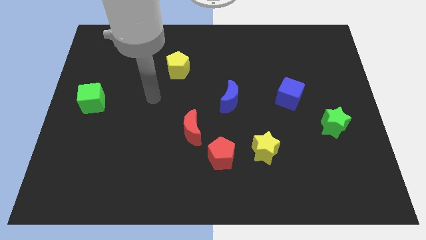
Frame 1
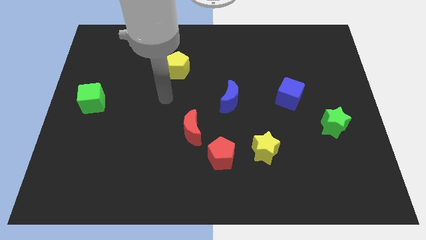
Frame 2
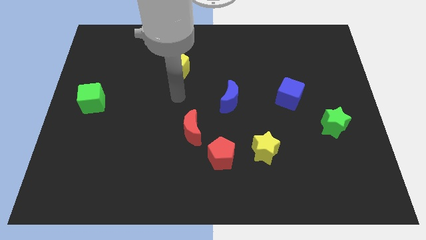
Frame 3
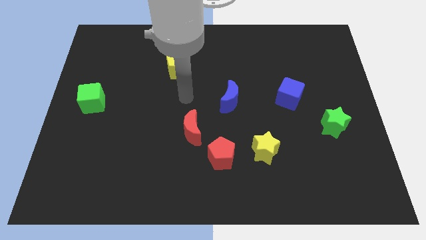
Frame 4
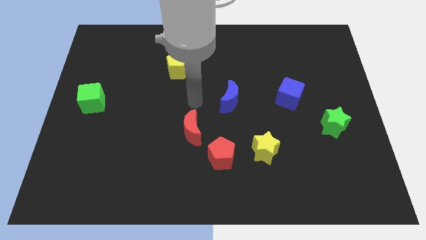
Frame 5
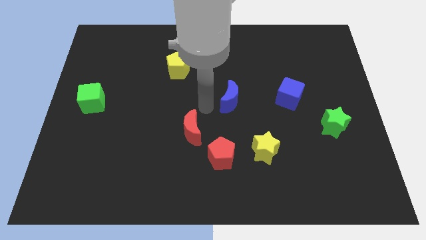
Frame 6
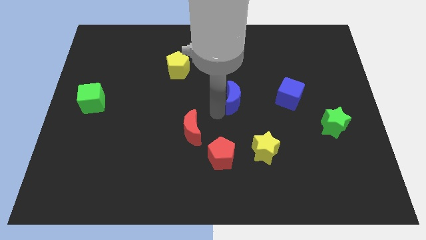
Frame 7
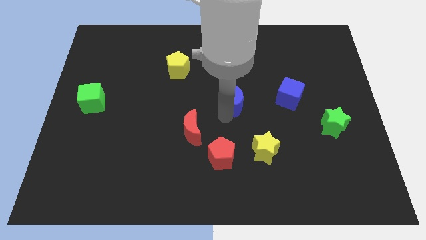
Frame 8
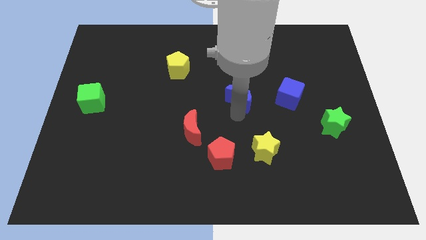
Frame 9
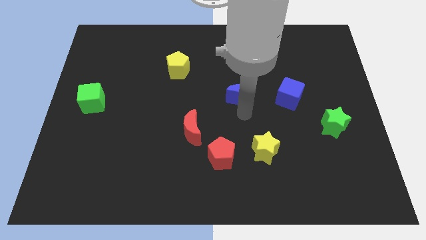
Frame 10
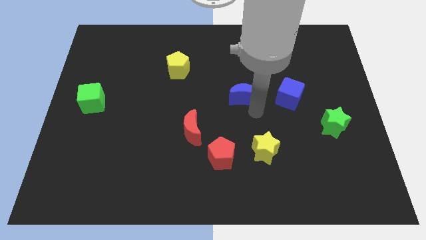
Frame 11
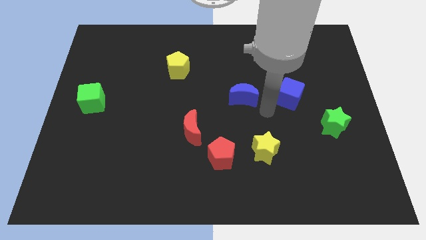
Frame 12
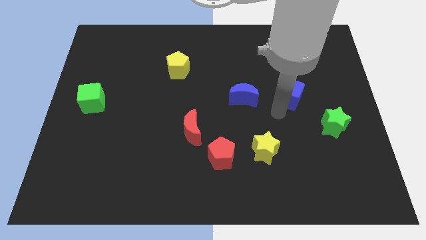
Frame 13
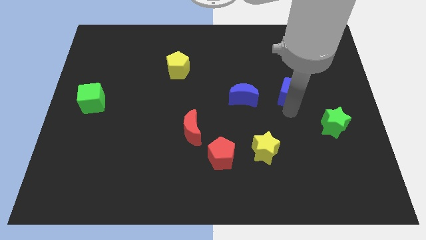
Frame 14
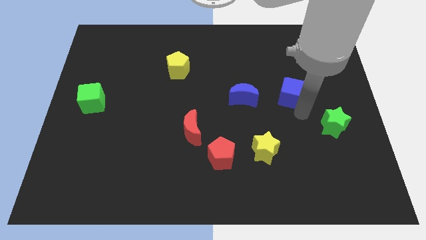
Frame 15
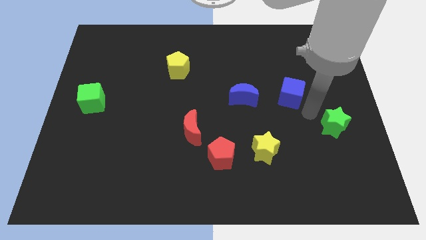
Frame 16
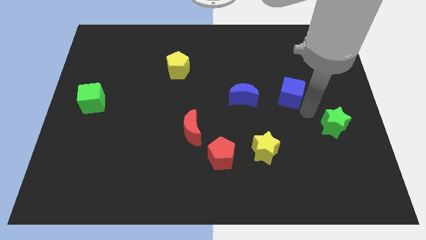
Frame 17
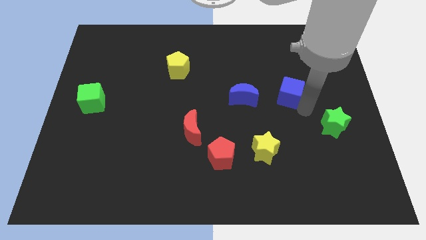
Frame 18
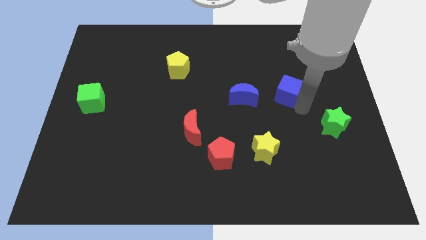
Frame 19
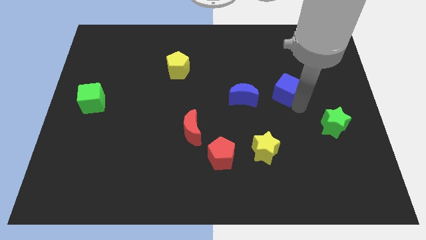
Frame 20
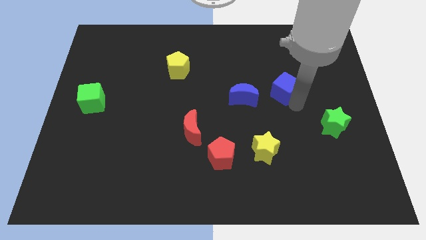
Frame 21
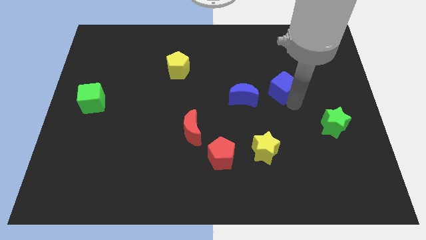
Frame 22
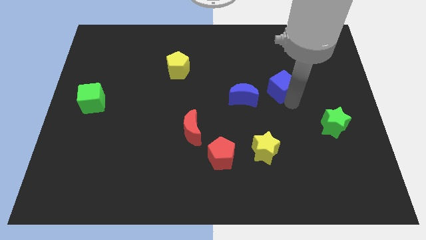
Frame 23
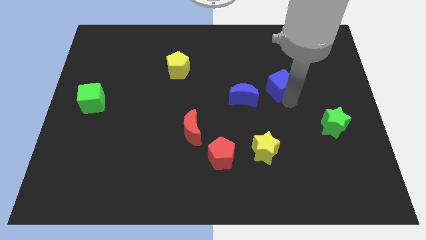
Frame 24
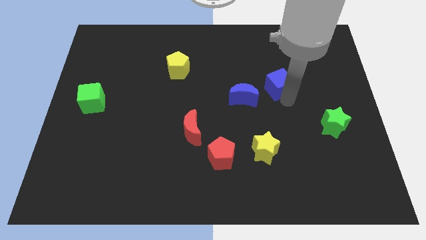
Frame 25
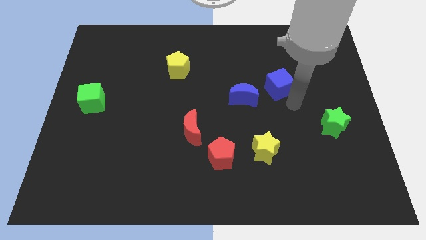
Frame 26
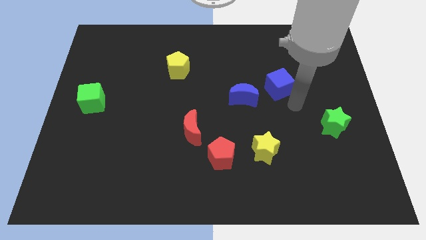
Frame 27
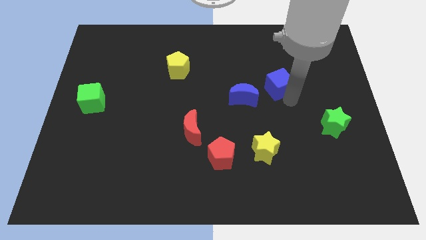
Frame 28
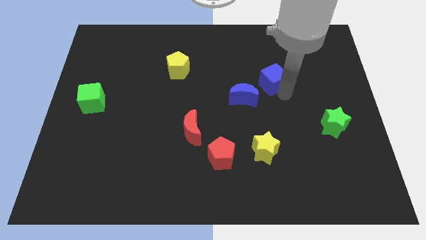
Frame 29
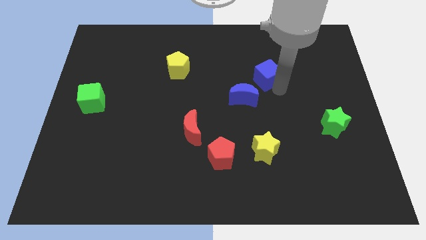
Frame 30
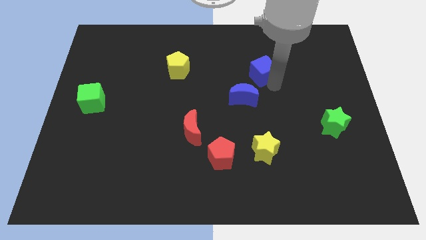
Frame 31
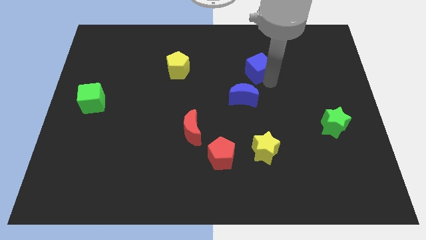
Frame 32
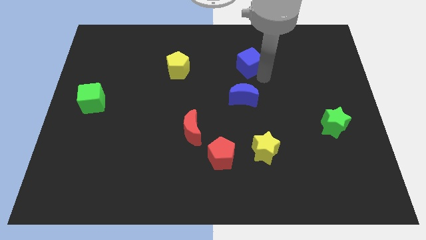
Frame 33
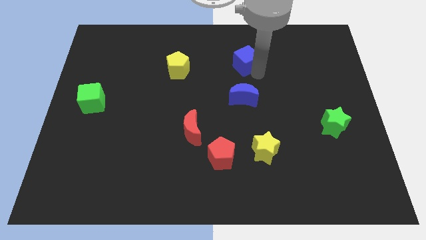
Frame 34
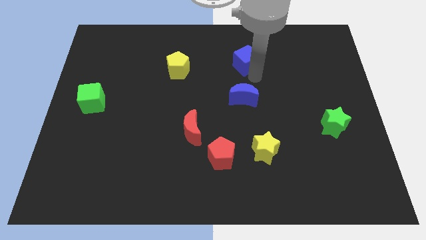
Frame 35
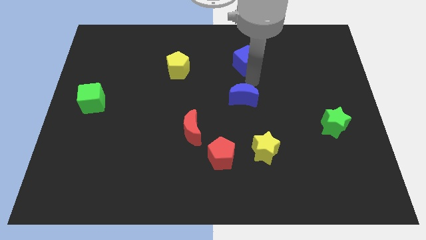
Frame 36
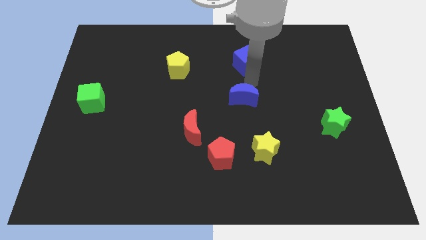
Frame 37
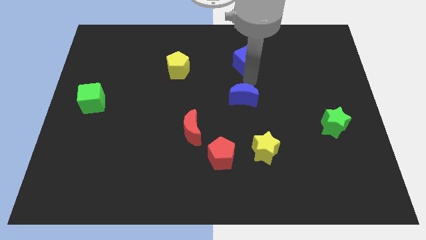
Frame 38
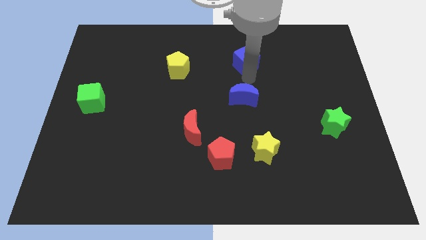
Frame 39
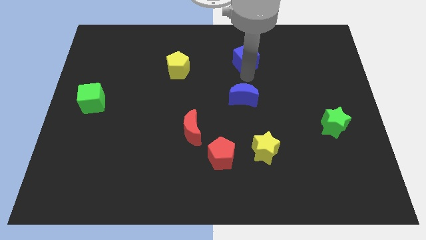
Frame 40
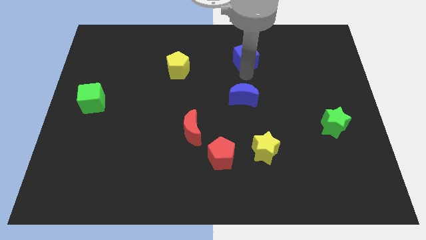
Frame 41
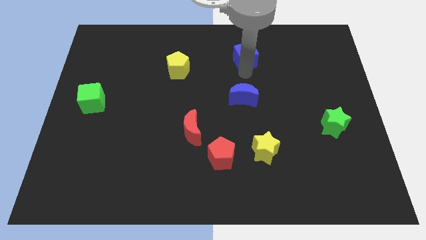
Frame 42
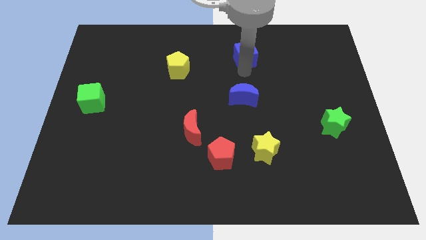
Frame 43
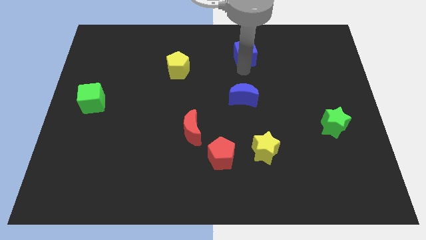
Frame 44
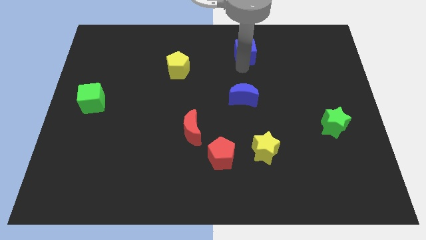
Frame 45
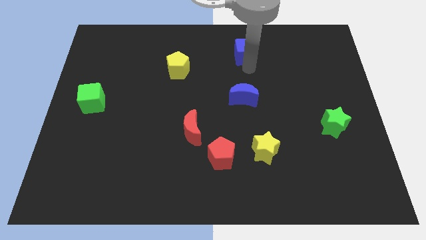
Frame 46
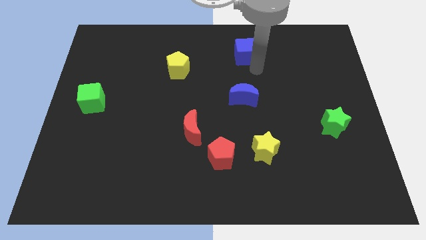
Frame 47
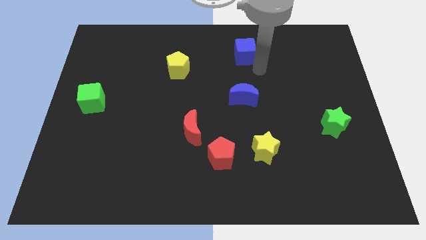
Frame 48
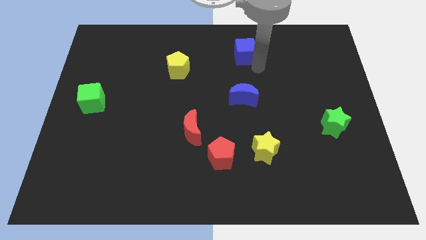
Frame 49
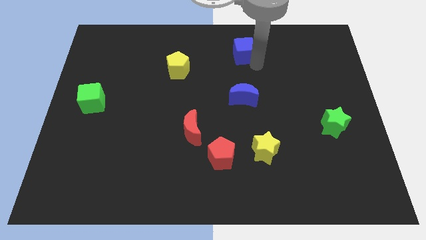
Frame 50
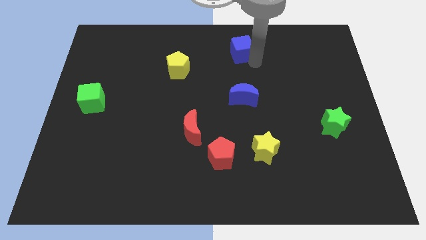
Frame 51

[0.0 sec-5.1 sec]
push the blue cube to the top

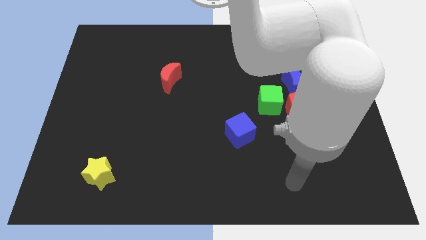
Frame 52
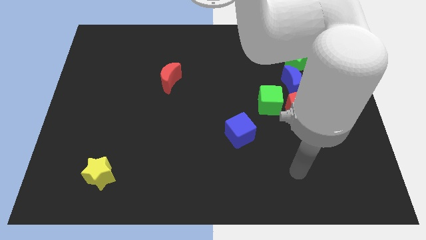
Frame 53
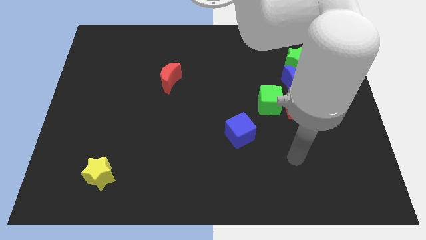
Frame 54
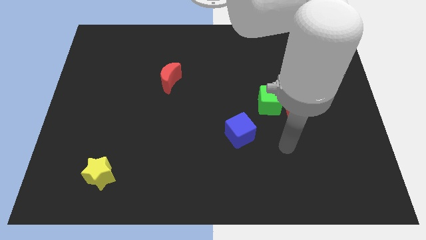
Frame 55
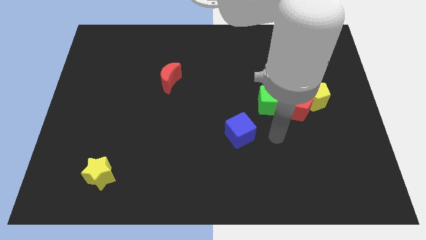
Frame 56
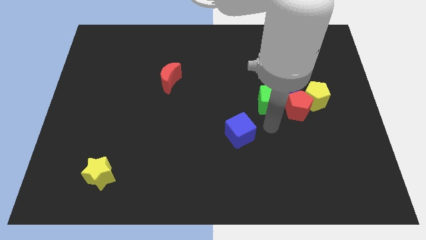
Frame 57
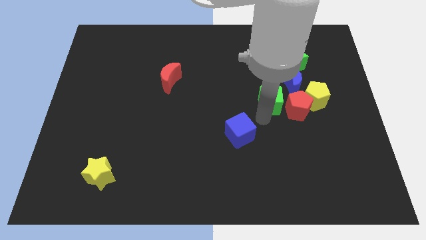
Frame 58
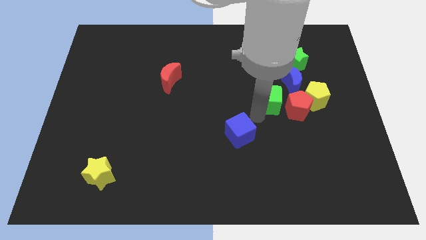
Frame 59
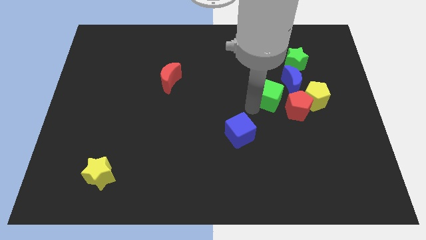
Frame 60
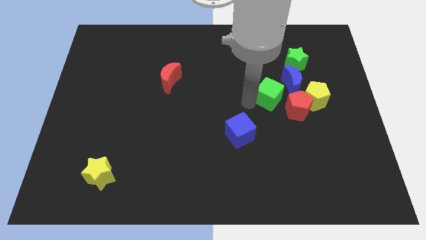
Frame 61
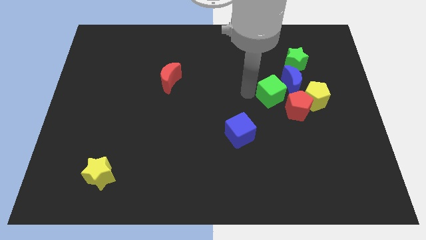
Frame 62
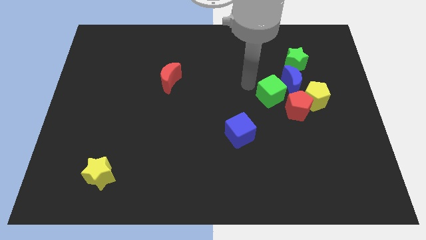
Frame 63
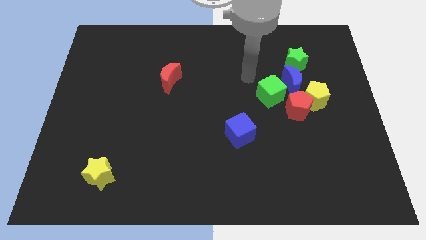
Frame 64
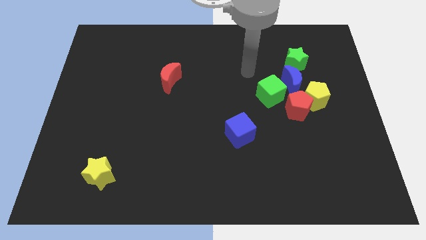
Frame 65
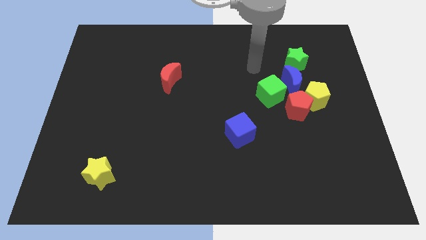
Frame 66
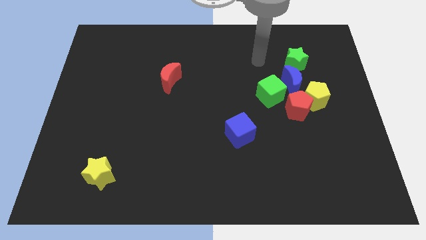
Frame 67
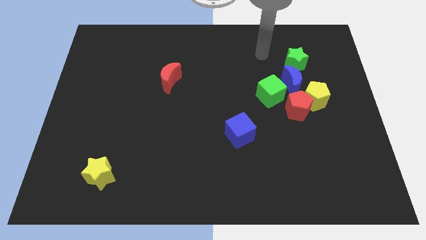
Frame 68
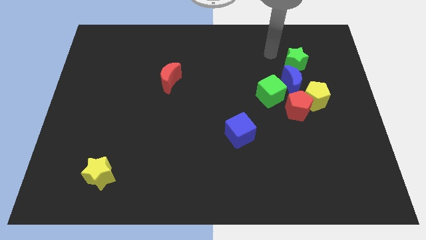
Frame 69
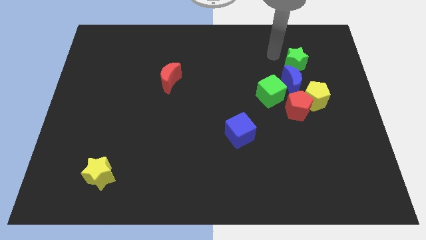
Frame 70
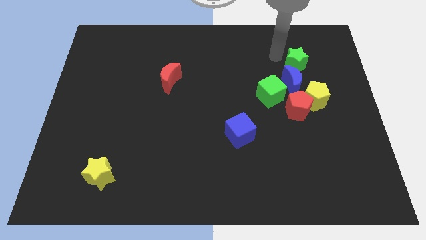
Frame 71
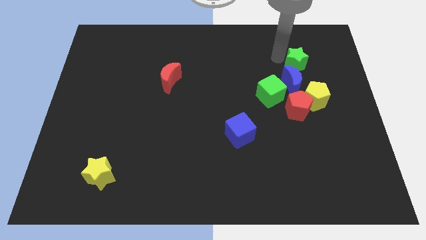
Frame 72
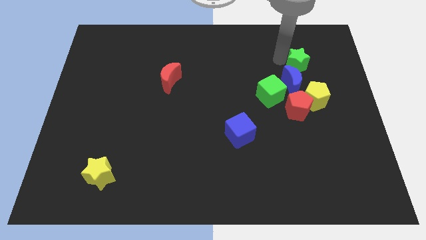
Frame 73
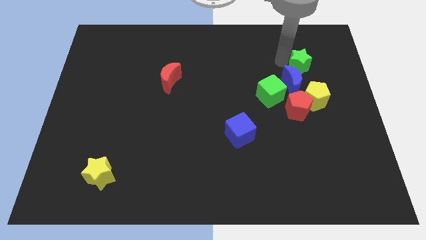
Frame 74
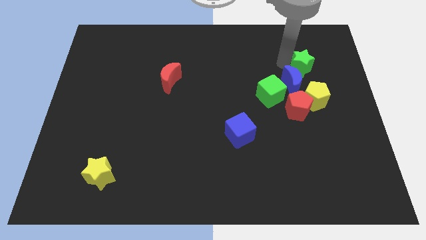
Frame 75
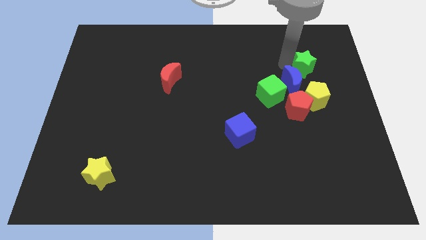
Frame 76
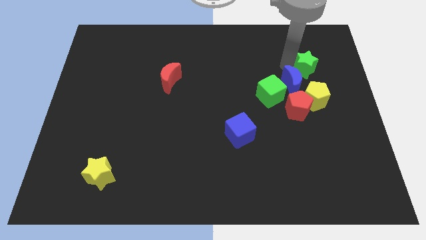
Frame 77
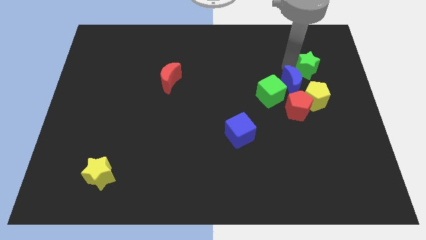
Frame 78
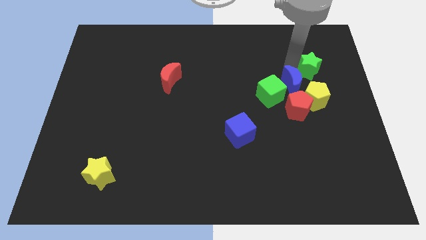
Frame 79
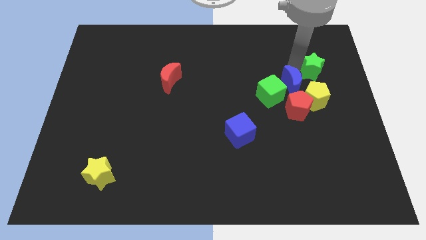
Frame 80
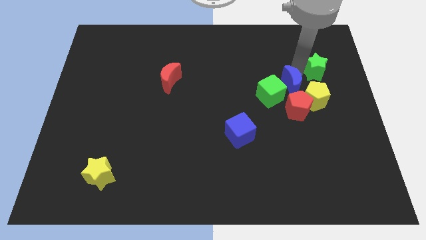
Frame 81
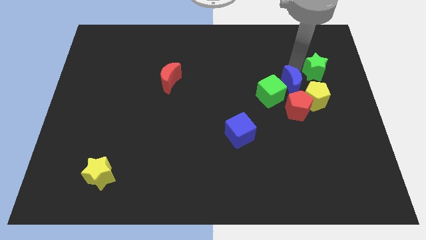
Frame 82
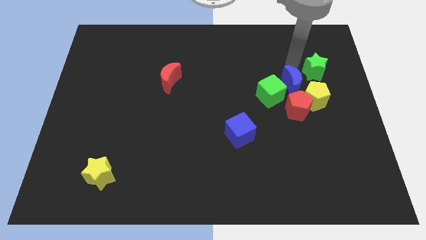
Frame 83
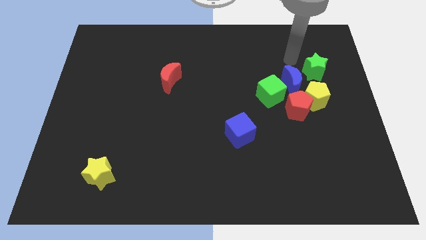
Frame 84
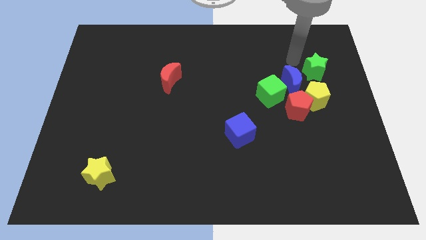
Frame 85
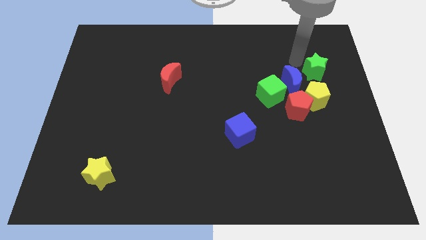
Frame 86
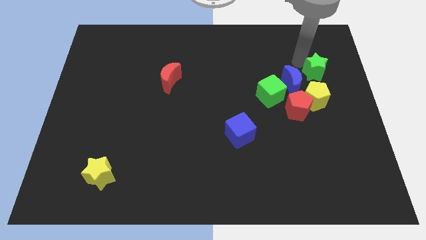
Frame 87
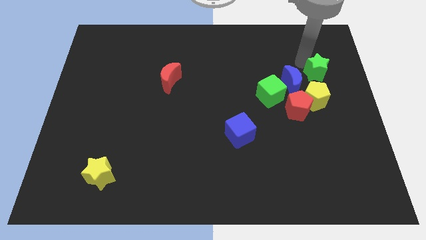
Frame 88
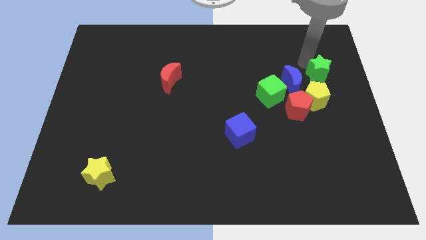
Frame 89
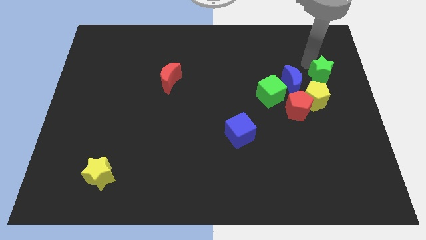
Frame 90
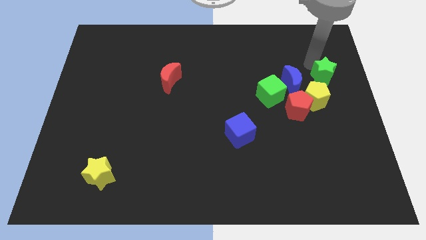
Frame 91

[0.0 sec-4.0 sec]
put the green star to the right side of the board
